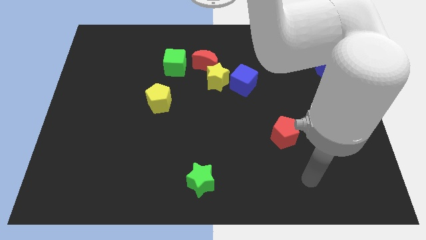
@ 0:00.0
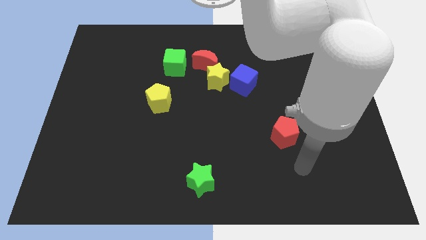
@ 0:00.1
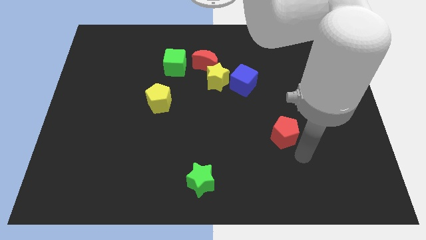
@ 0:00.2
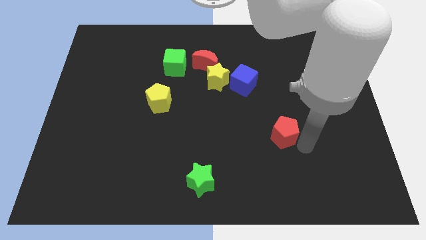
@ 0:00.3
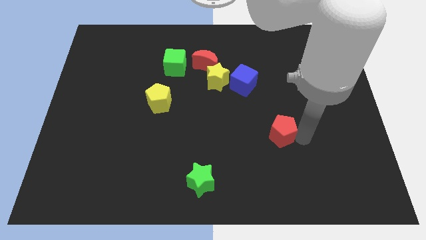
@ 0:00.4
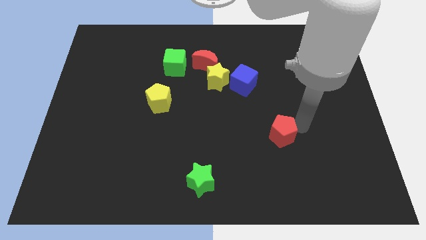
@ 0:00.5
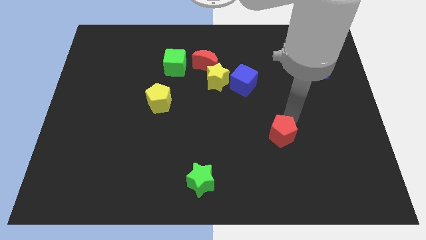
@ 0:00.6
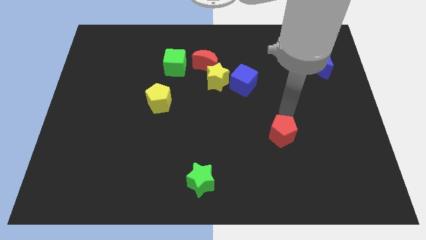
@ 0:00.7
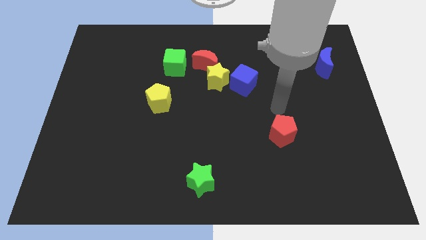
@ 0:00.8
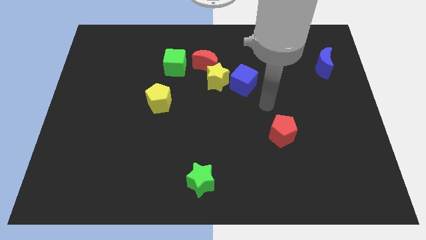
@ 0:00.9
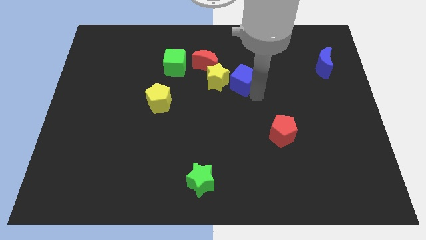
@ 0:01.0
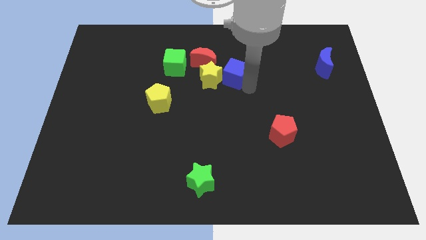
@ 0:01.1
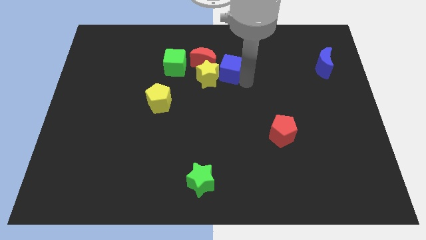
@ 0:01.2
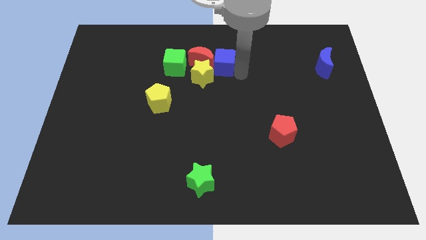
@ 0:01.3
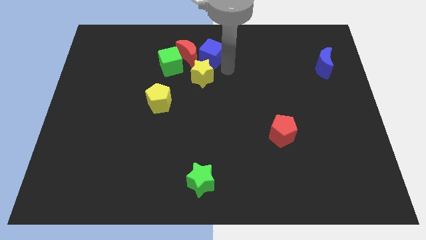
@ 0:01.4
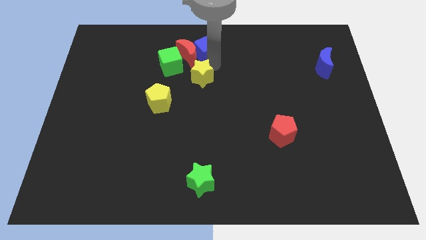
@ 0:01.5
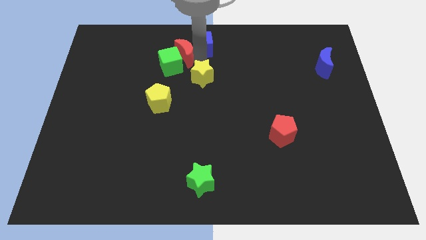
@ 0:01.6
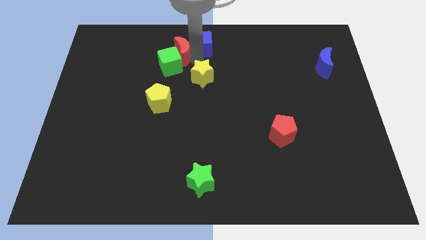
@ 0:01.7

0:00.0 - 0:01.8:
move the yellow star away from the red moon and blue cube

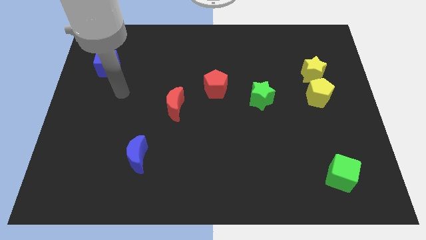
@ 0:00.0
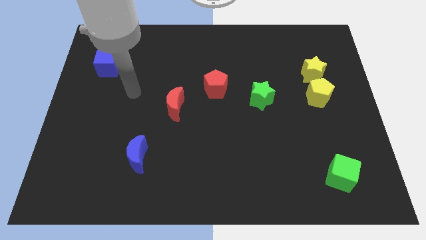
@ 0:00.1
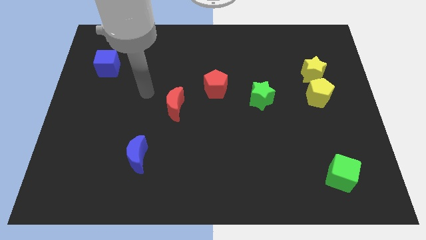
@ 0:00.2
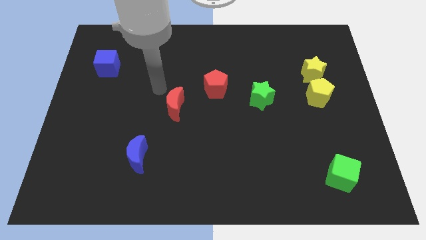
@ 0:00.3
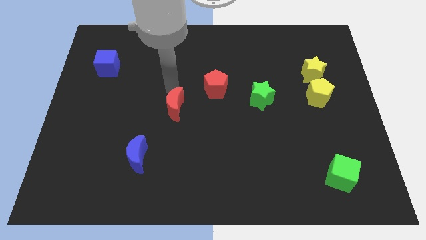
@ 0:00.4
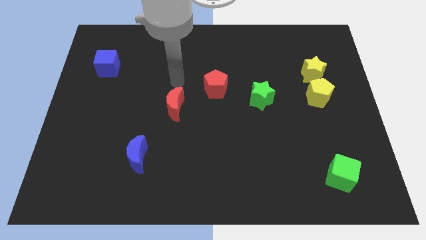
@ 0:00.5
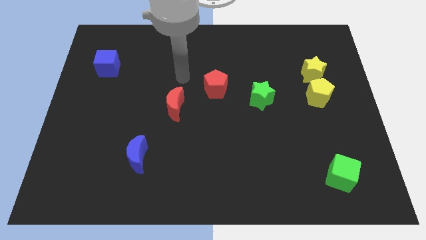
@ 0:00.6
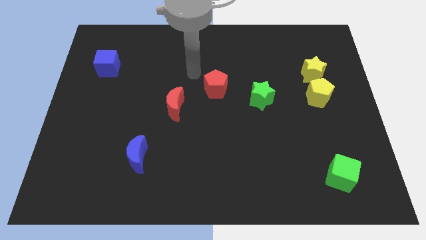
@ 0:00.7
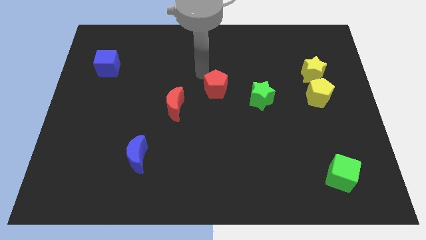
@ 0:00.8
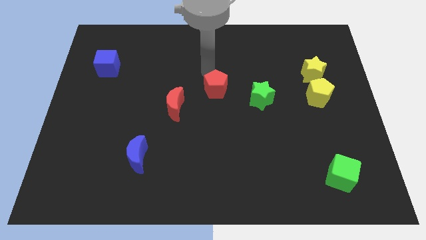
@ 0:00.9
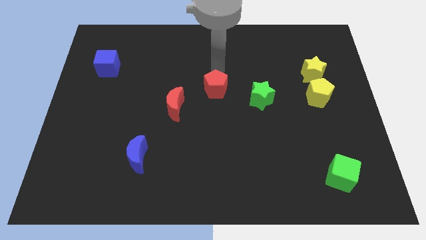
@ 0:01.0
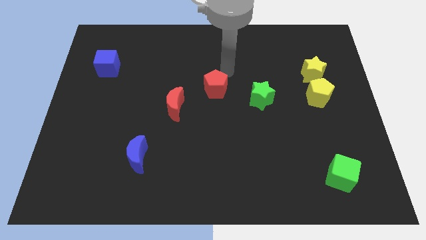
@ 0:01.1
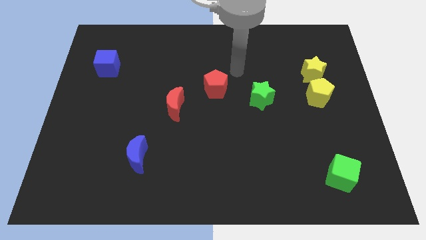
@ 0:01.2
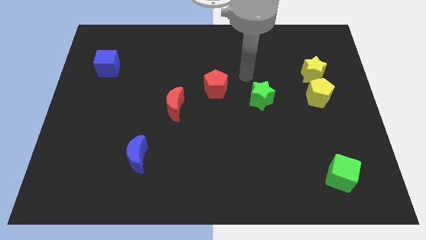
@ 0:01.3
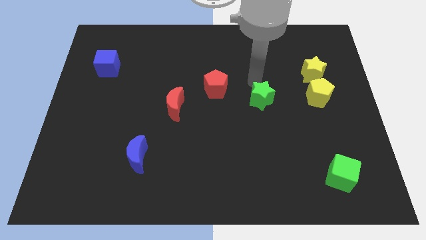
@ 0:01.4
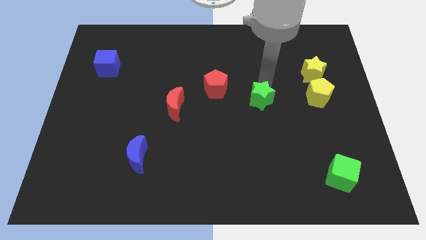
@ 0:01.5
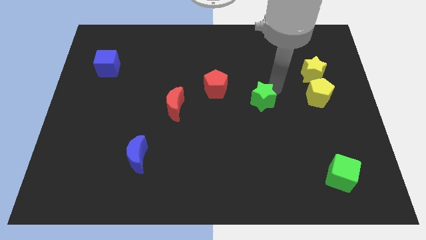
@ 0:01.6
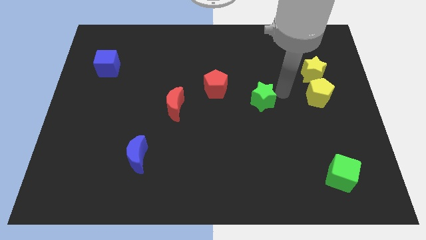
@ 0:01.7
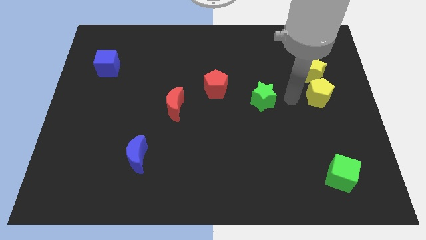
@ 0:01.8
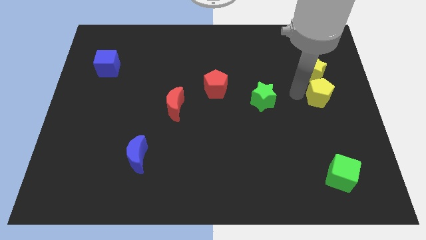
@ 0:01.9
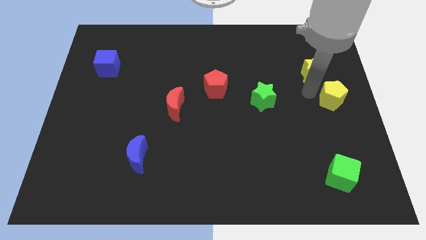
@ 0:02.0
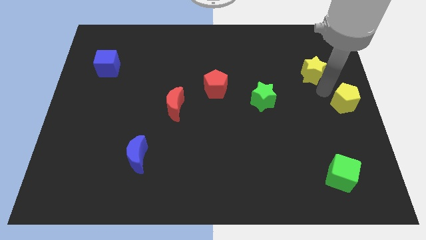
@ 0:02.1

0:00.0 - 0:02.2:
pull the yellow star apart from the yellow pentagon

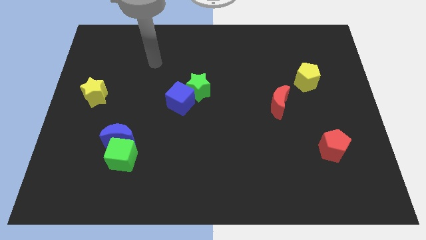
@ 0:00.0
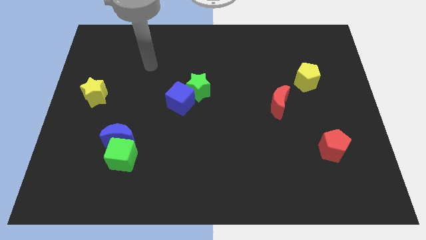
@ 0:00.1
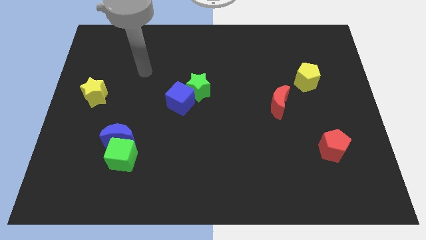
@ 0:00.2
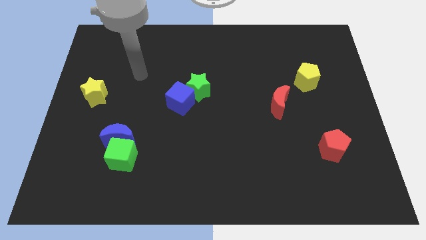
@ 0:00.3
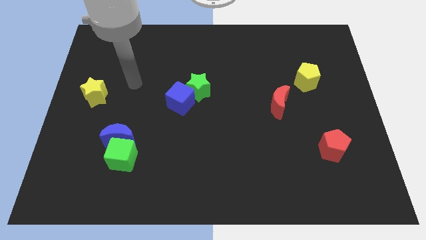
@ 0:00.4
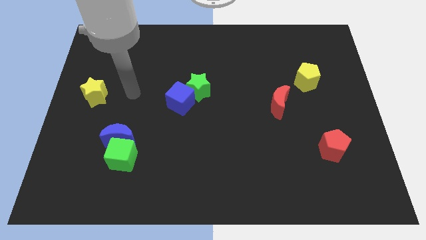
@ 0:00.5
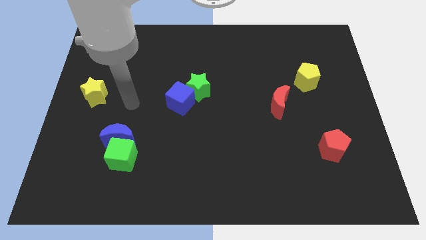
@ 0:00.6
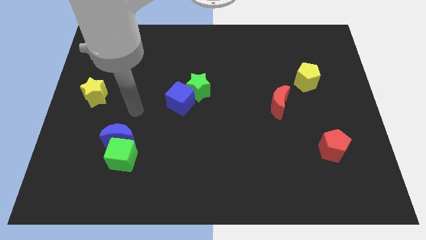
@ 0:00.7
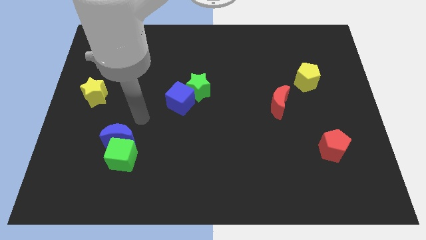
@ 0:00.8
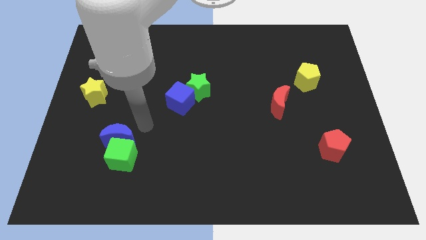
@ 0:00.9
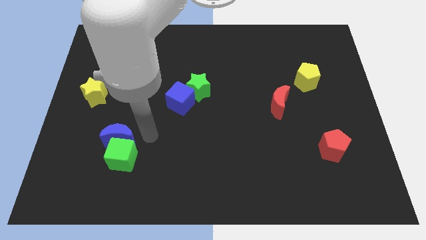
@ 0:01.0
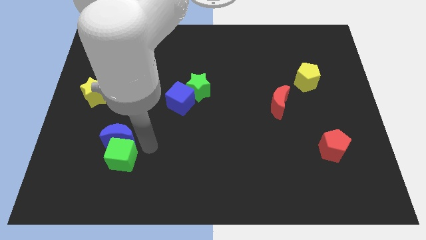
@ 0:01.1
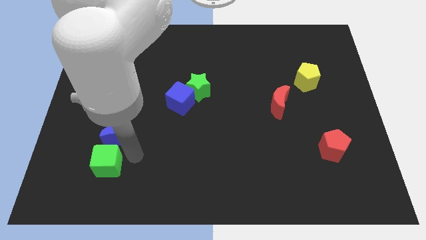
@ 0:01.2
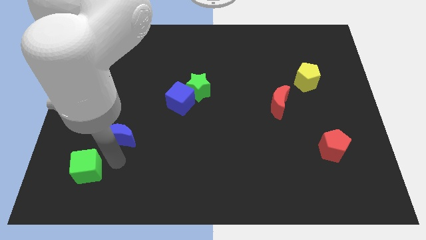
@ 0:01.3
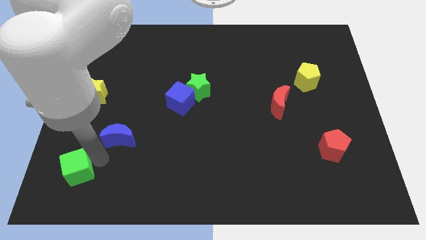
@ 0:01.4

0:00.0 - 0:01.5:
separate the blue moon from the green cube

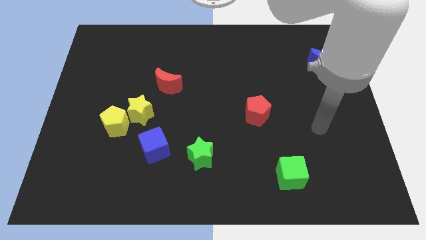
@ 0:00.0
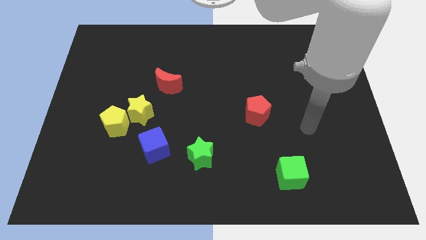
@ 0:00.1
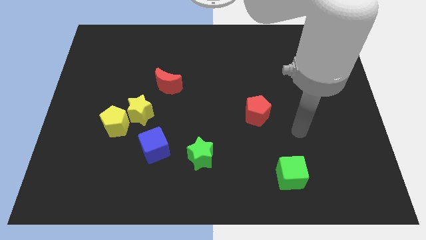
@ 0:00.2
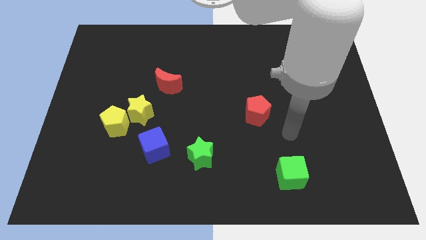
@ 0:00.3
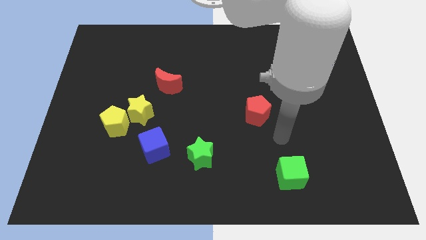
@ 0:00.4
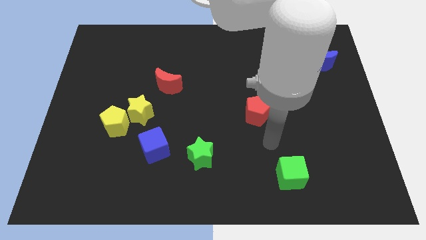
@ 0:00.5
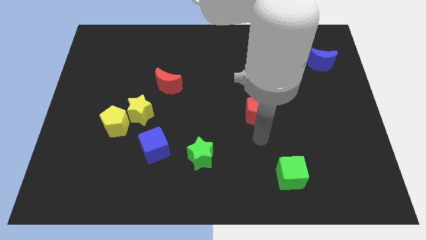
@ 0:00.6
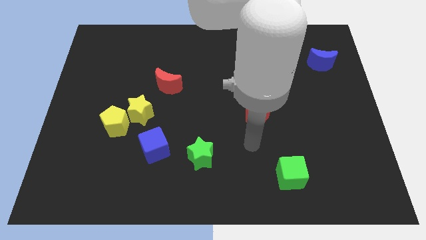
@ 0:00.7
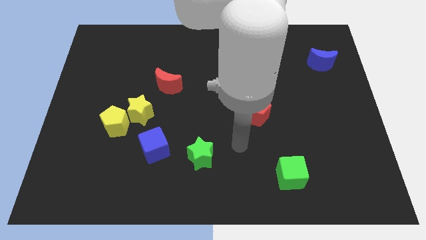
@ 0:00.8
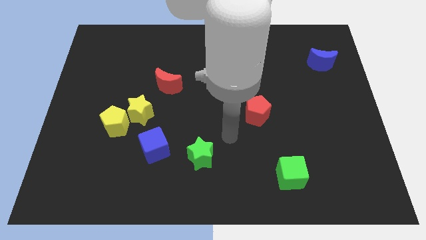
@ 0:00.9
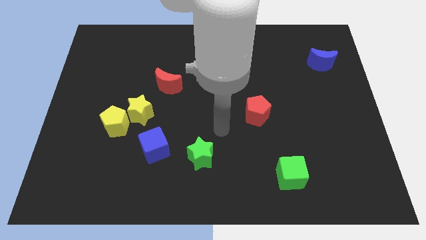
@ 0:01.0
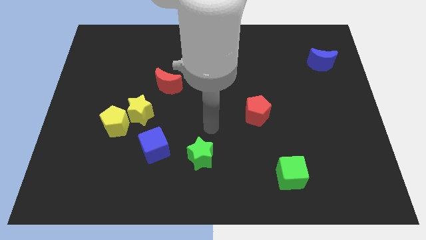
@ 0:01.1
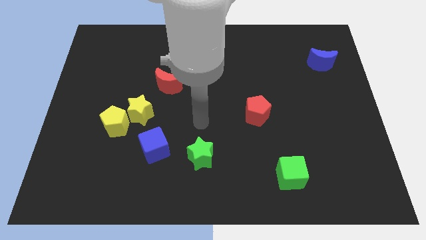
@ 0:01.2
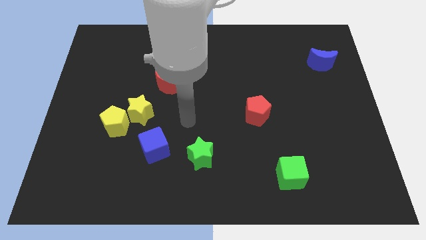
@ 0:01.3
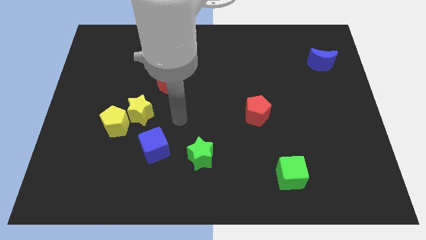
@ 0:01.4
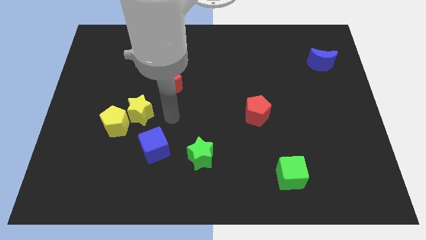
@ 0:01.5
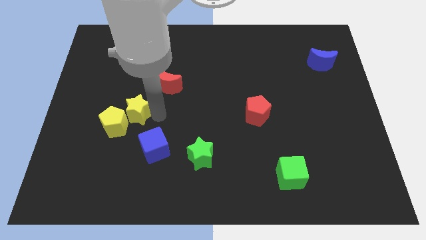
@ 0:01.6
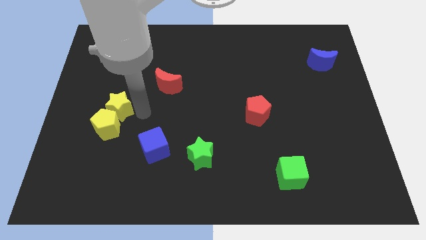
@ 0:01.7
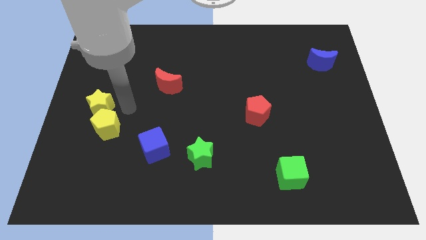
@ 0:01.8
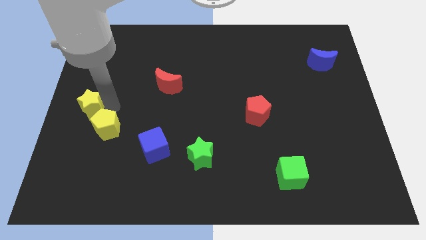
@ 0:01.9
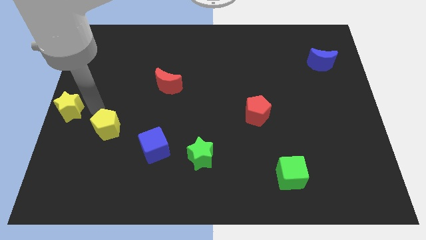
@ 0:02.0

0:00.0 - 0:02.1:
separate the yellow pentagon from the yellow star

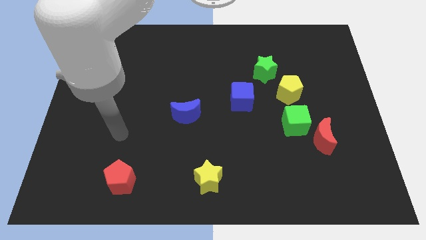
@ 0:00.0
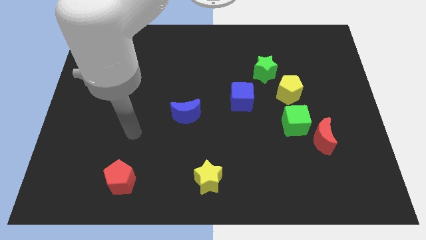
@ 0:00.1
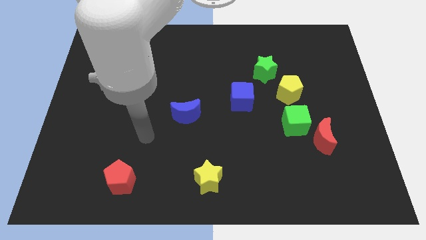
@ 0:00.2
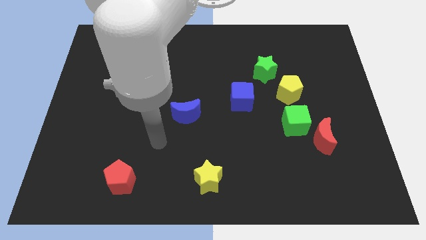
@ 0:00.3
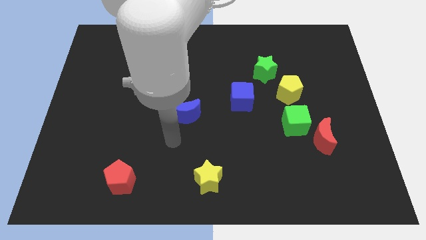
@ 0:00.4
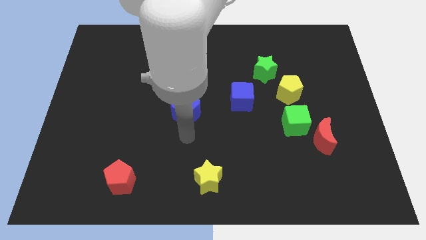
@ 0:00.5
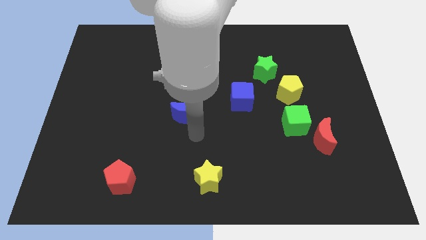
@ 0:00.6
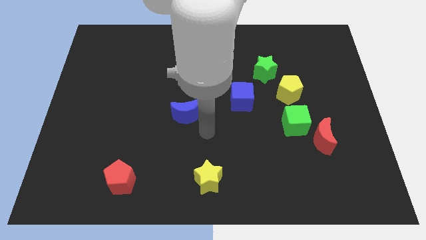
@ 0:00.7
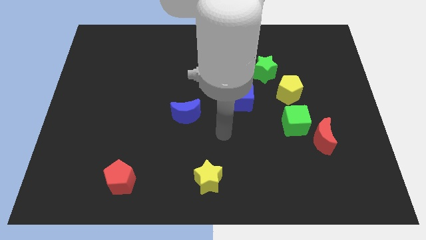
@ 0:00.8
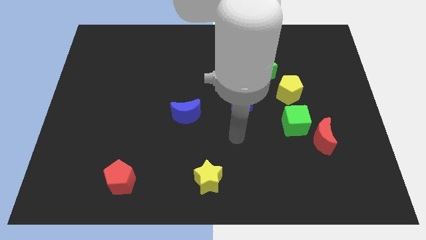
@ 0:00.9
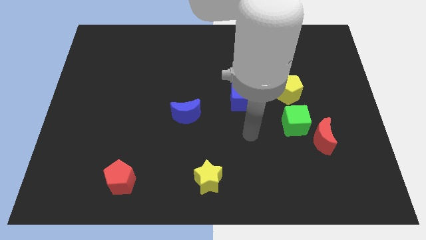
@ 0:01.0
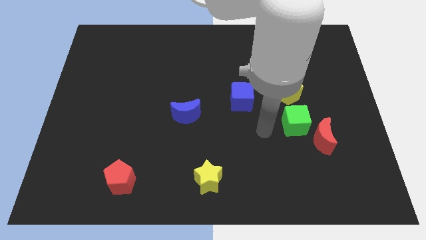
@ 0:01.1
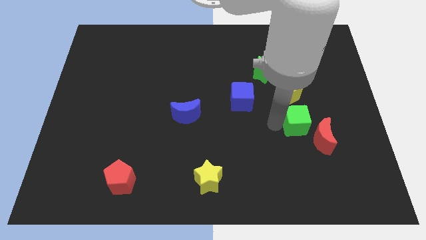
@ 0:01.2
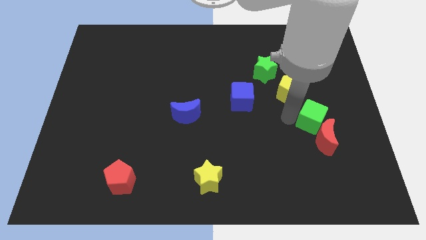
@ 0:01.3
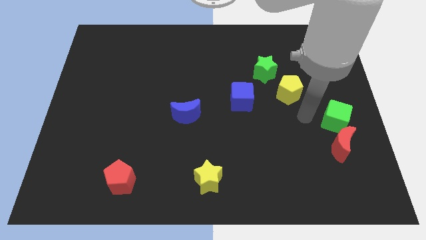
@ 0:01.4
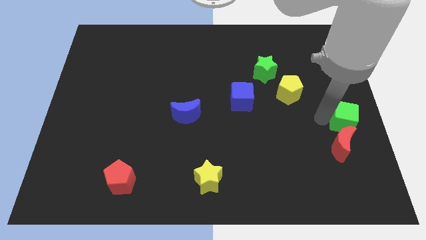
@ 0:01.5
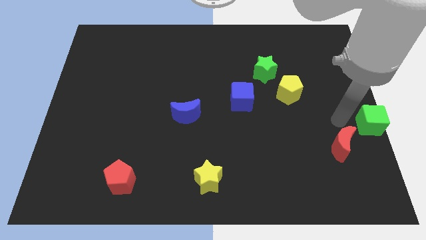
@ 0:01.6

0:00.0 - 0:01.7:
separate the red moon from the green cube
